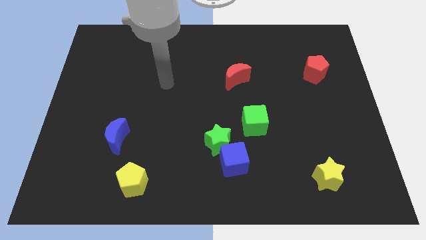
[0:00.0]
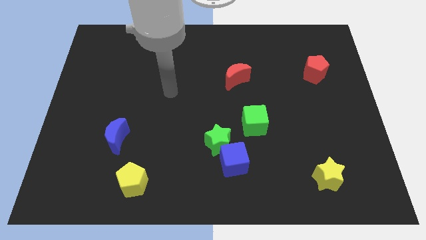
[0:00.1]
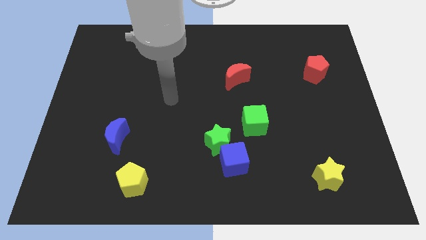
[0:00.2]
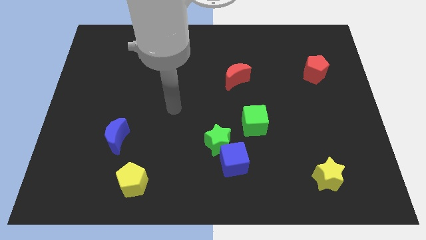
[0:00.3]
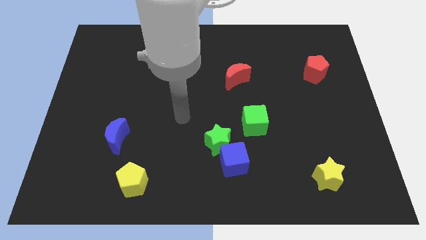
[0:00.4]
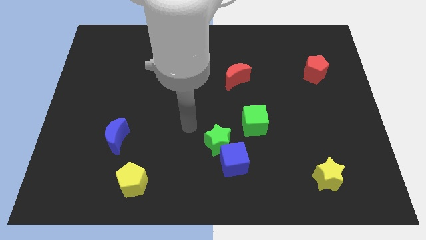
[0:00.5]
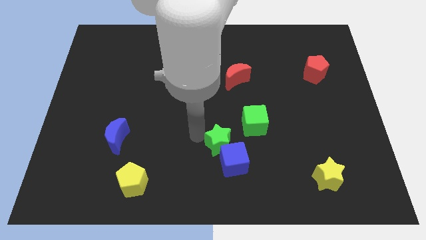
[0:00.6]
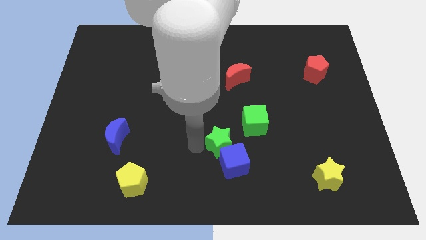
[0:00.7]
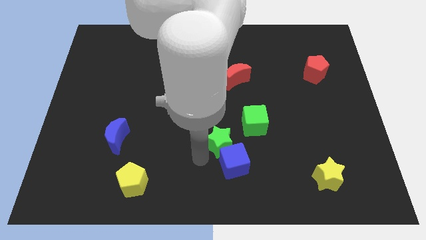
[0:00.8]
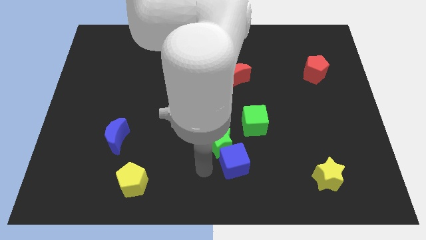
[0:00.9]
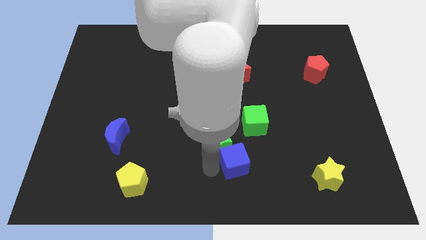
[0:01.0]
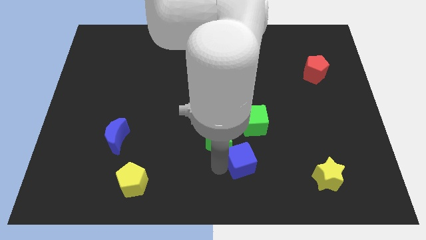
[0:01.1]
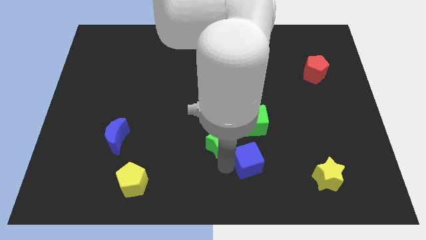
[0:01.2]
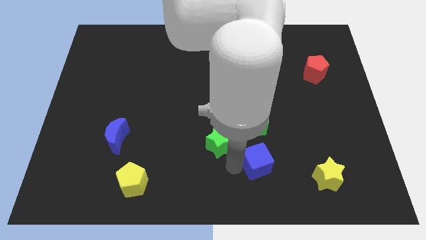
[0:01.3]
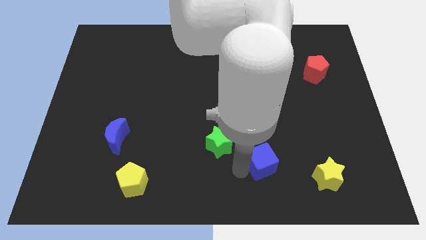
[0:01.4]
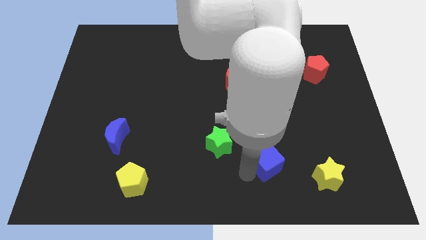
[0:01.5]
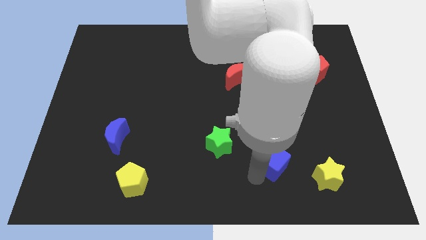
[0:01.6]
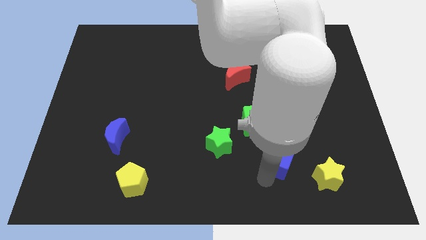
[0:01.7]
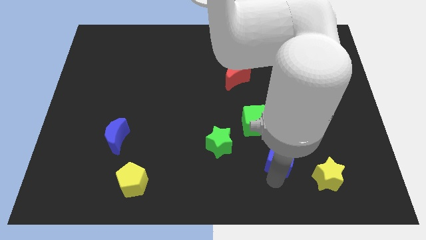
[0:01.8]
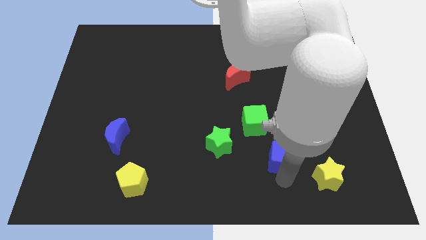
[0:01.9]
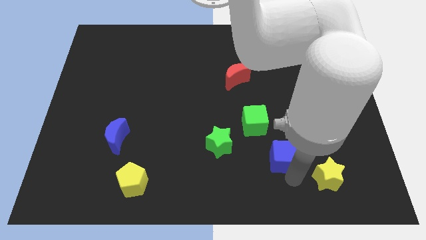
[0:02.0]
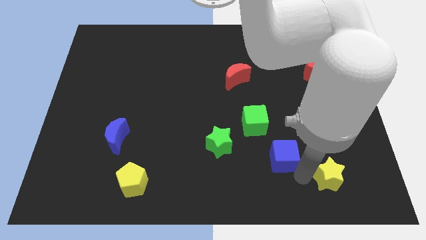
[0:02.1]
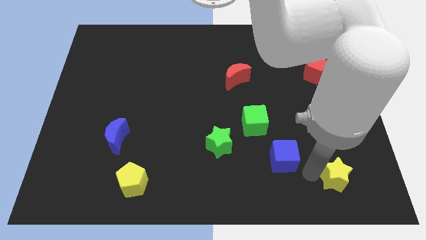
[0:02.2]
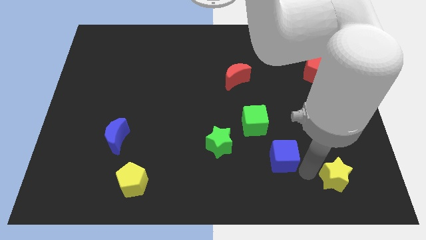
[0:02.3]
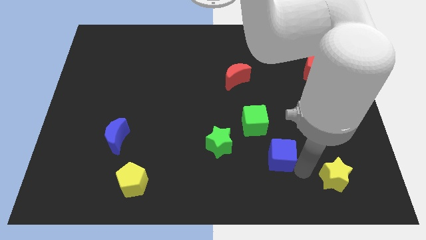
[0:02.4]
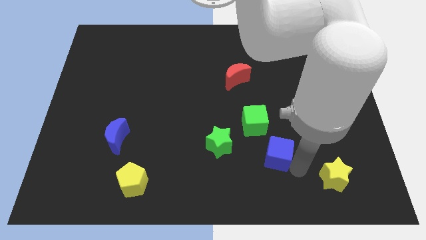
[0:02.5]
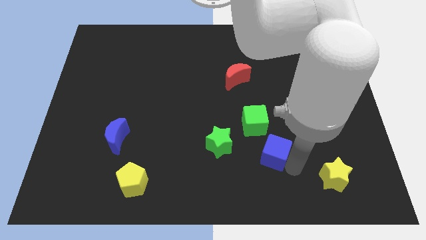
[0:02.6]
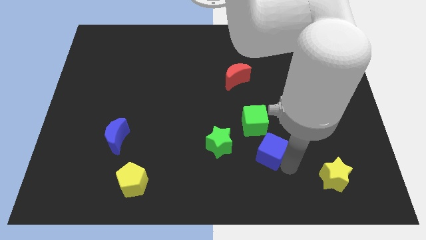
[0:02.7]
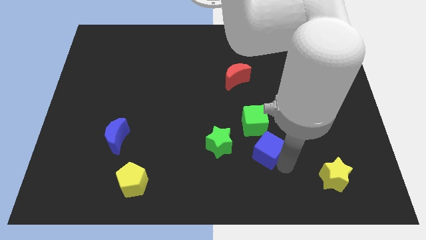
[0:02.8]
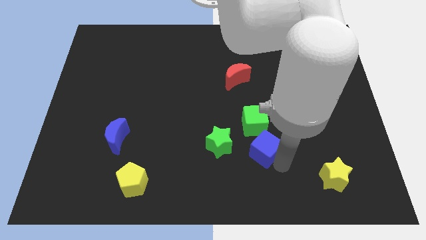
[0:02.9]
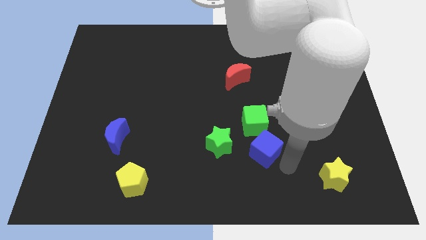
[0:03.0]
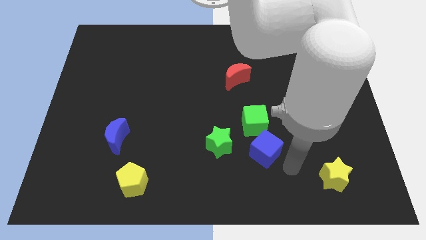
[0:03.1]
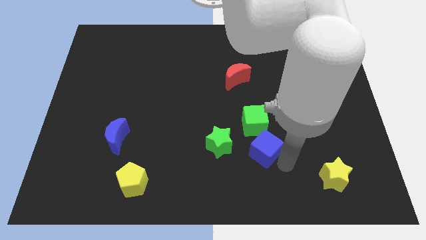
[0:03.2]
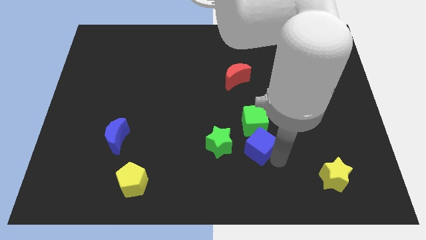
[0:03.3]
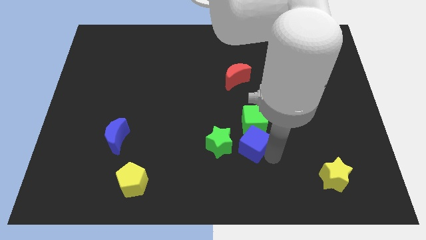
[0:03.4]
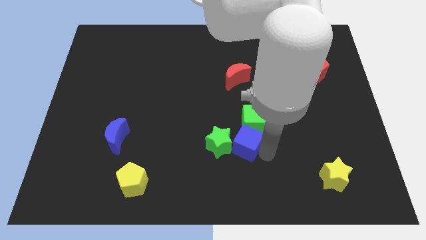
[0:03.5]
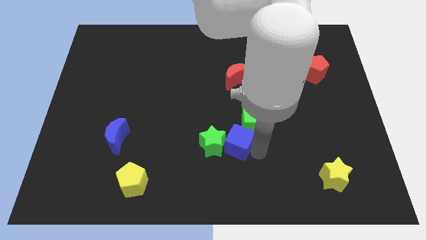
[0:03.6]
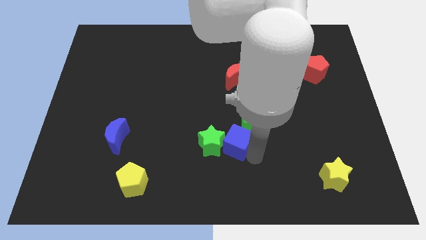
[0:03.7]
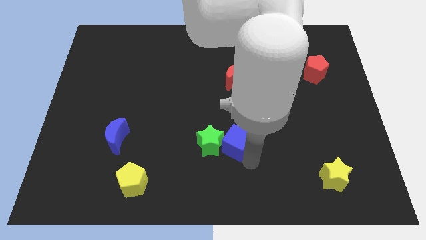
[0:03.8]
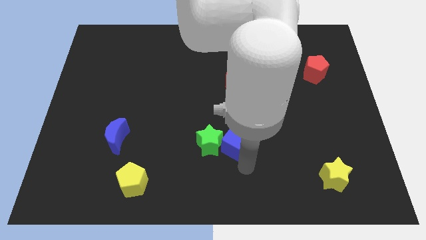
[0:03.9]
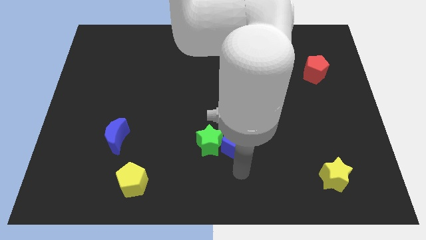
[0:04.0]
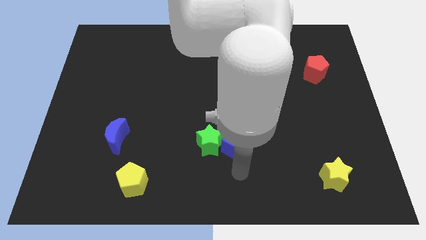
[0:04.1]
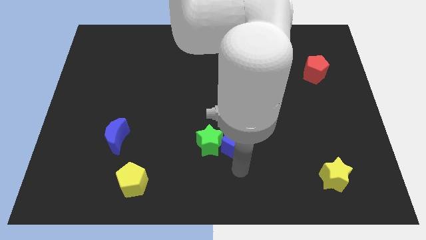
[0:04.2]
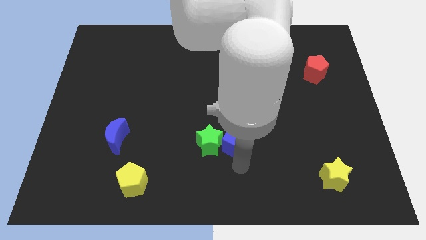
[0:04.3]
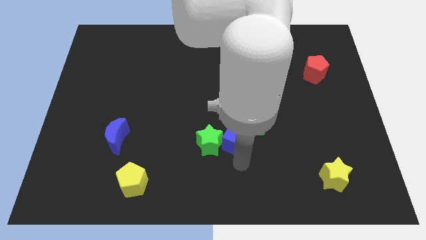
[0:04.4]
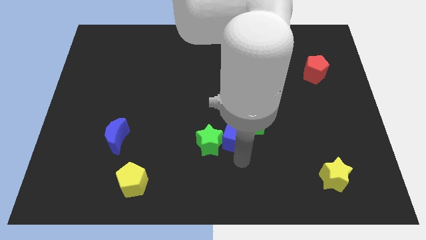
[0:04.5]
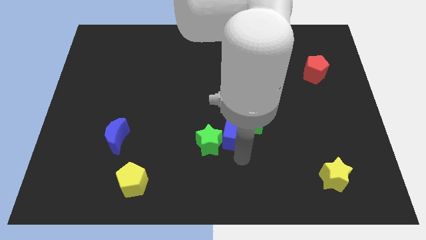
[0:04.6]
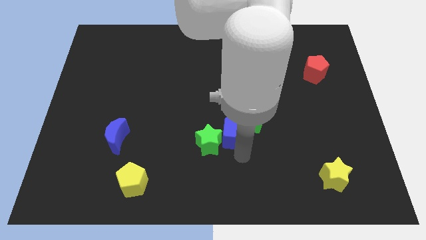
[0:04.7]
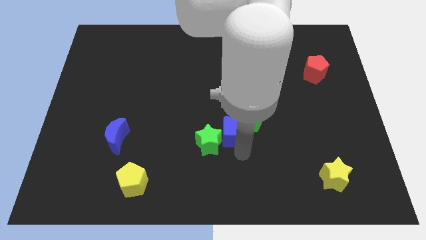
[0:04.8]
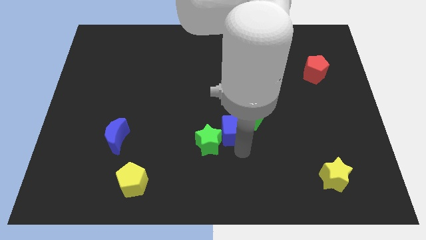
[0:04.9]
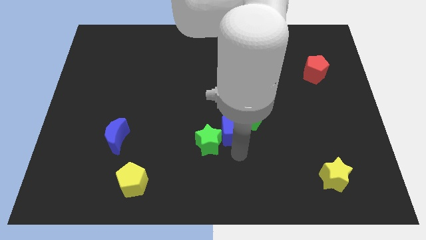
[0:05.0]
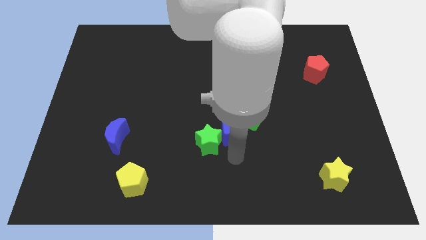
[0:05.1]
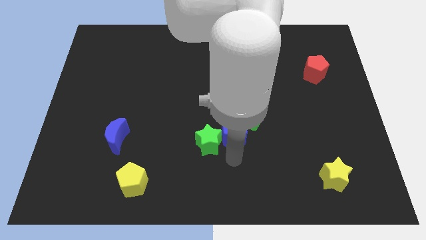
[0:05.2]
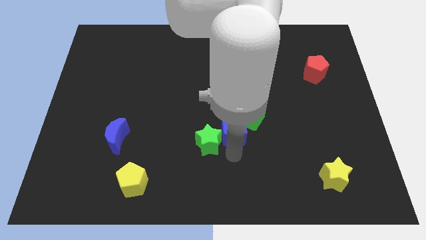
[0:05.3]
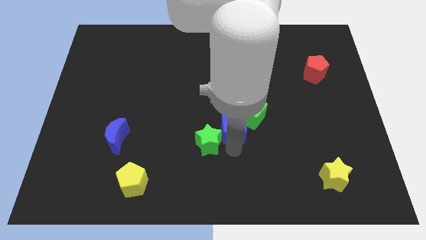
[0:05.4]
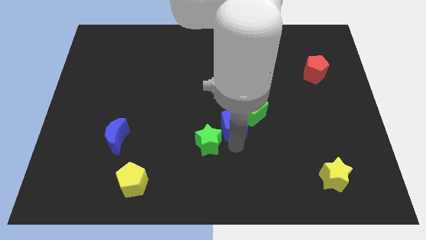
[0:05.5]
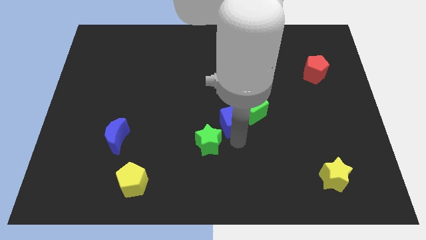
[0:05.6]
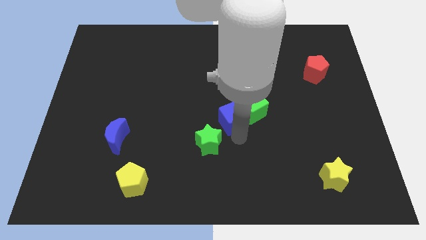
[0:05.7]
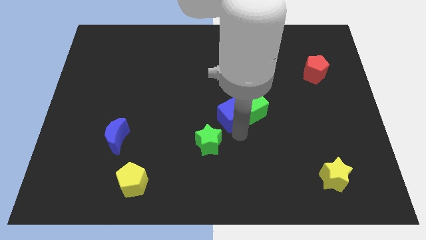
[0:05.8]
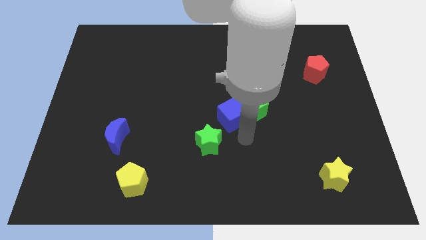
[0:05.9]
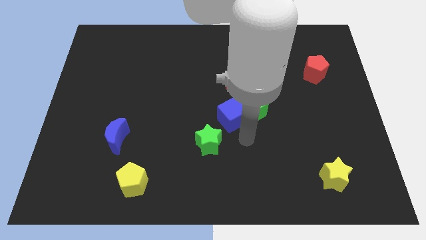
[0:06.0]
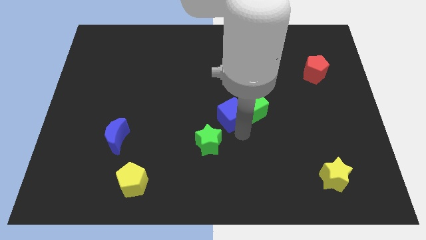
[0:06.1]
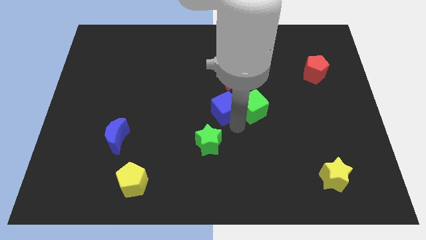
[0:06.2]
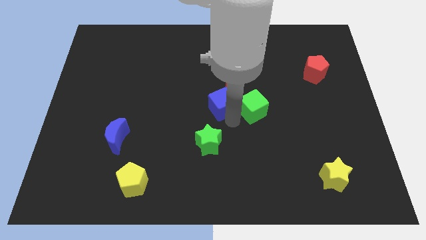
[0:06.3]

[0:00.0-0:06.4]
push the blue cube to the bottom left side of the red moon

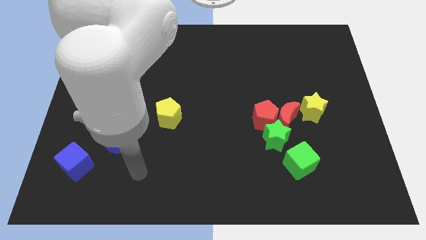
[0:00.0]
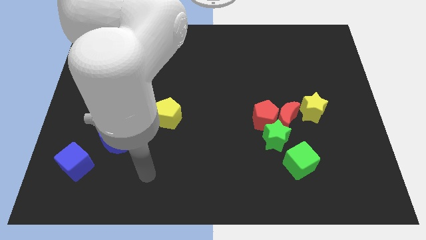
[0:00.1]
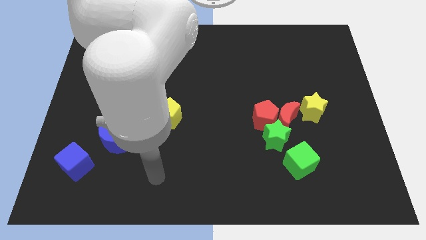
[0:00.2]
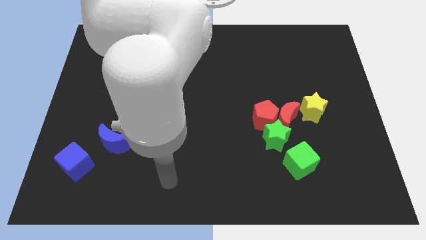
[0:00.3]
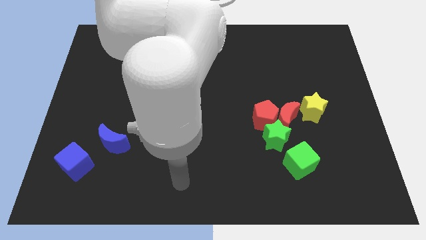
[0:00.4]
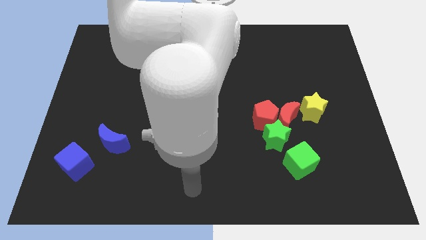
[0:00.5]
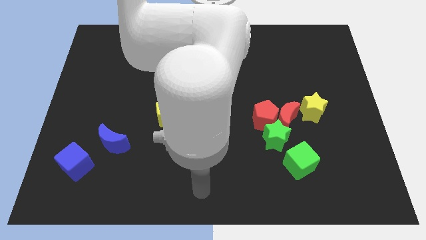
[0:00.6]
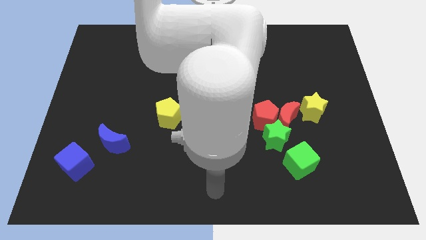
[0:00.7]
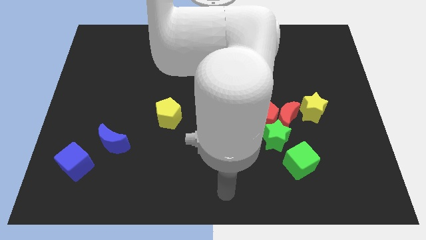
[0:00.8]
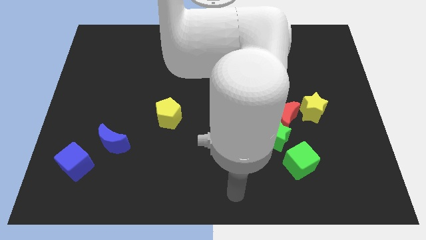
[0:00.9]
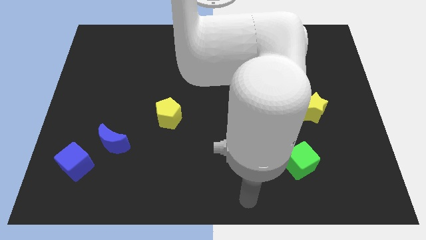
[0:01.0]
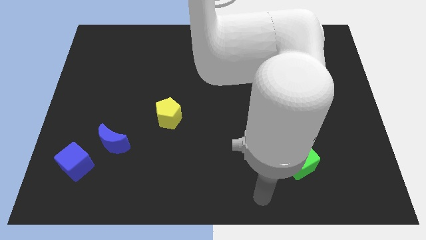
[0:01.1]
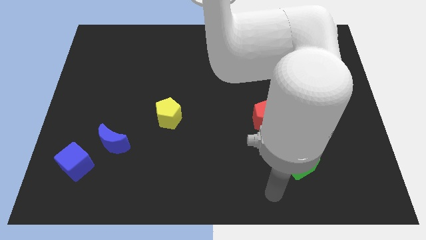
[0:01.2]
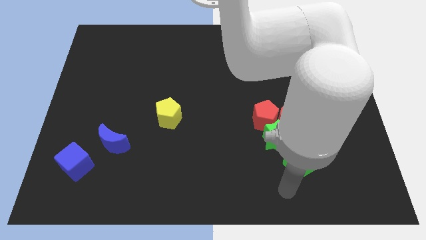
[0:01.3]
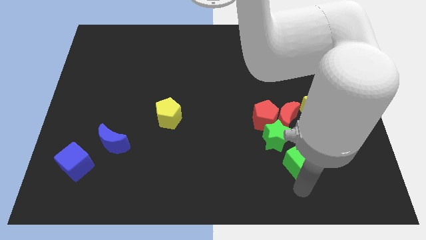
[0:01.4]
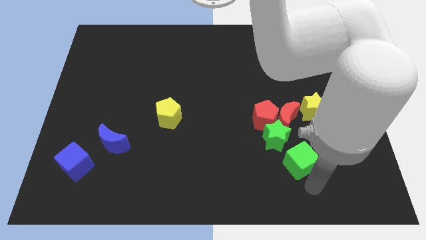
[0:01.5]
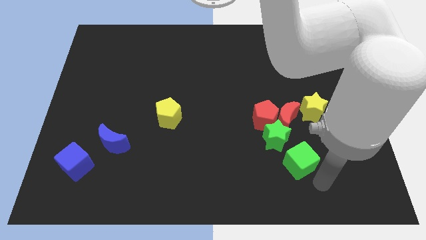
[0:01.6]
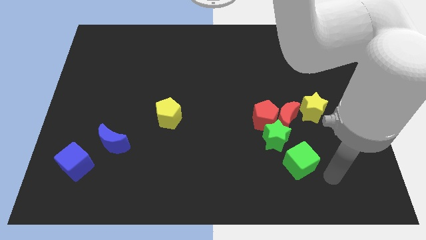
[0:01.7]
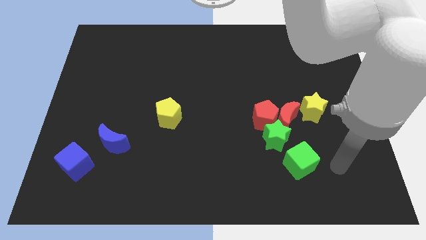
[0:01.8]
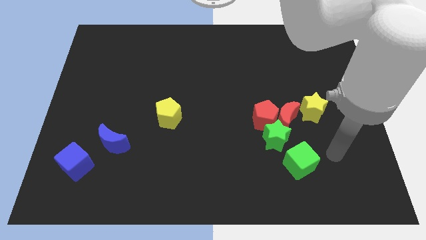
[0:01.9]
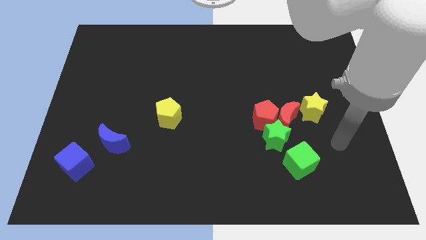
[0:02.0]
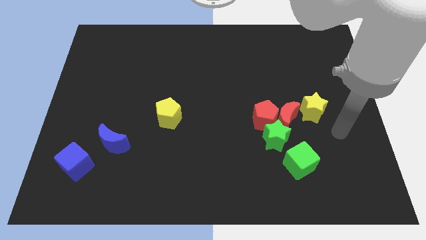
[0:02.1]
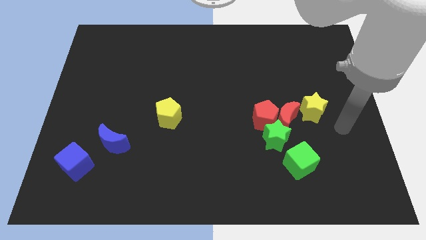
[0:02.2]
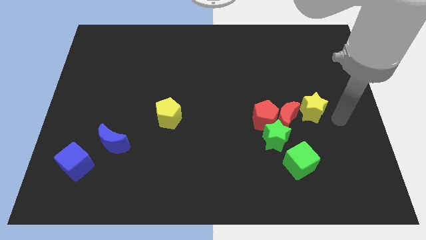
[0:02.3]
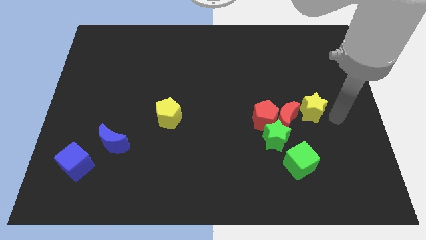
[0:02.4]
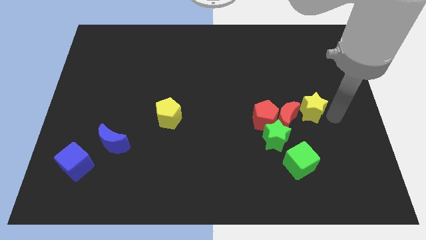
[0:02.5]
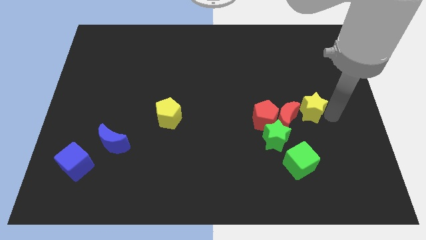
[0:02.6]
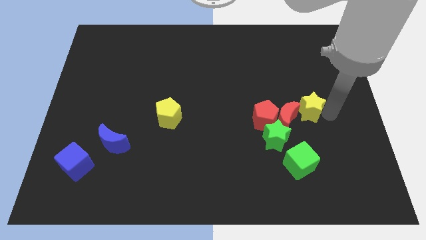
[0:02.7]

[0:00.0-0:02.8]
slide the yellow star to the top of the green cube
